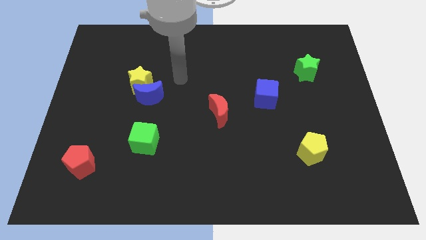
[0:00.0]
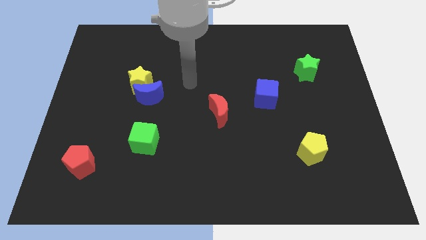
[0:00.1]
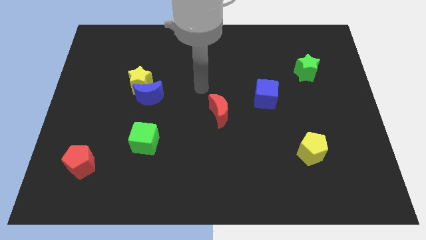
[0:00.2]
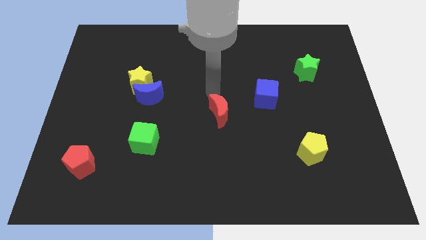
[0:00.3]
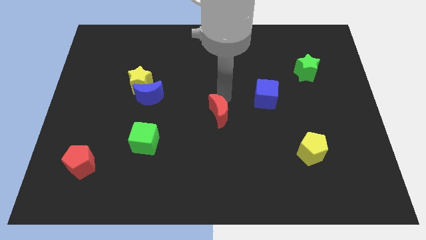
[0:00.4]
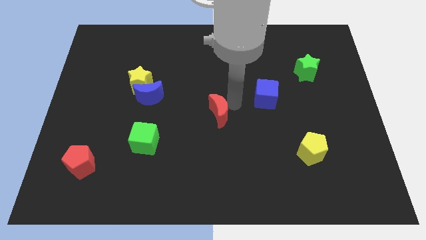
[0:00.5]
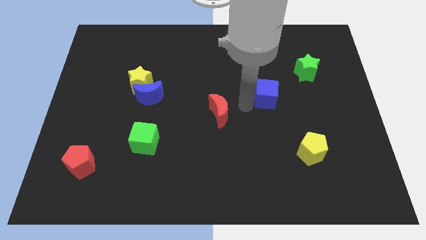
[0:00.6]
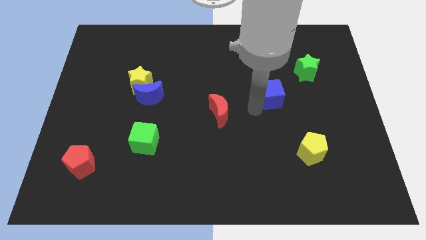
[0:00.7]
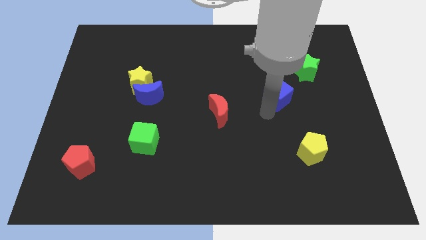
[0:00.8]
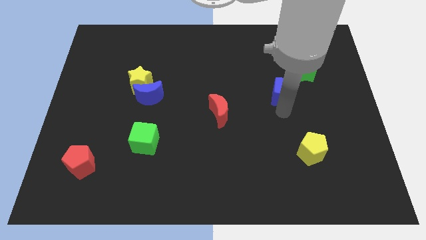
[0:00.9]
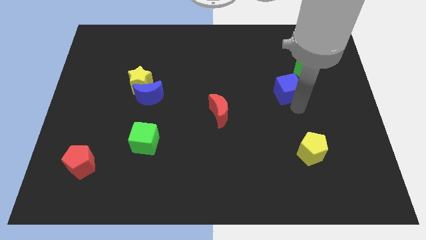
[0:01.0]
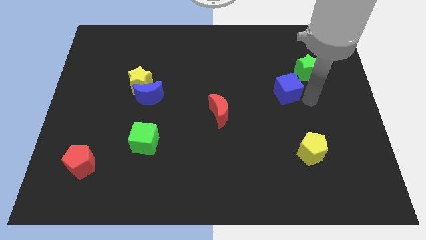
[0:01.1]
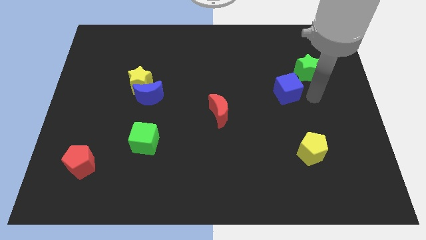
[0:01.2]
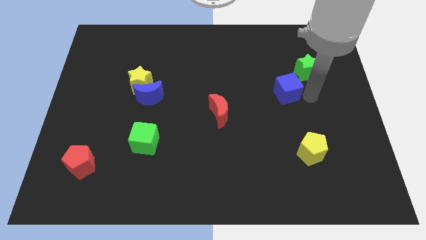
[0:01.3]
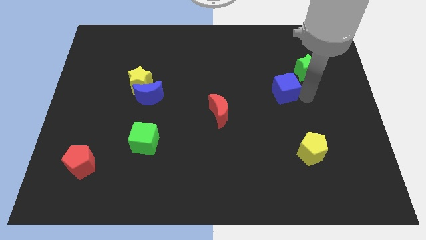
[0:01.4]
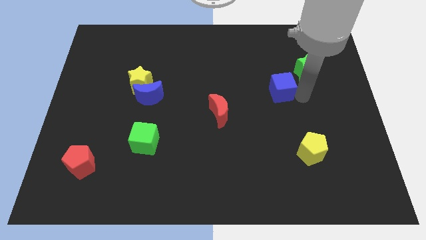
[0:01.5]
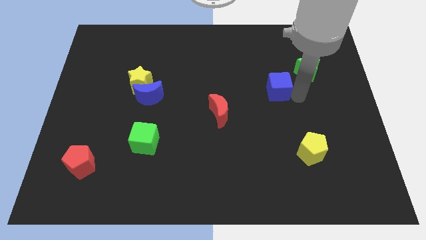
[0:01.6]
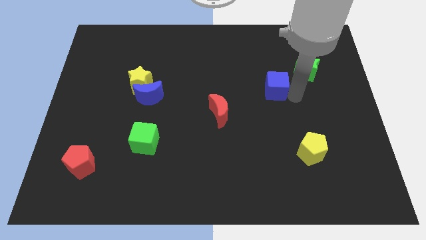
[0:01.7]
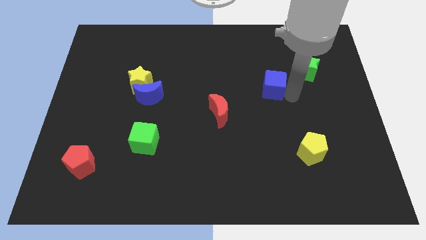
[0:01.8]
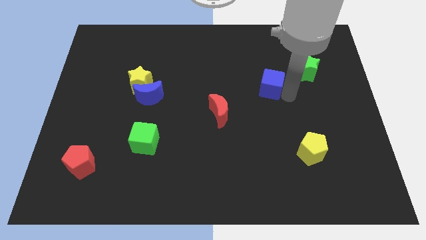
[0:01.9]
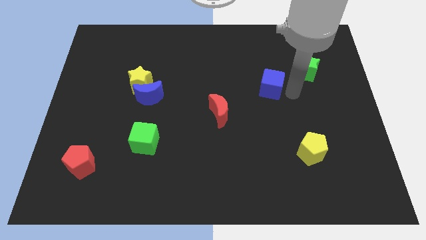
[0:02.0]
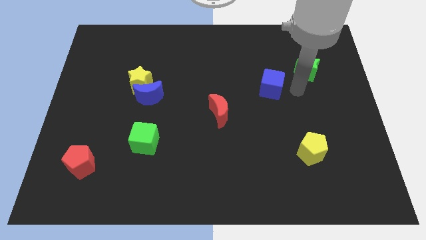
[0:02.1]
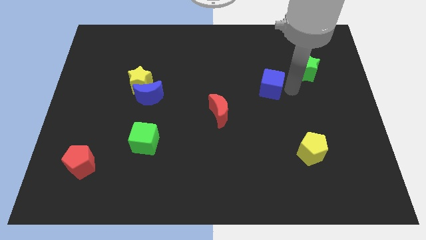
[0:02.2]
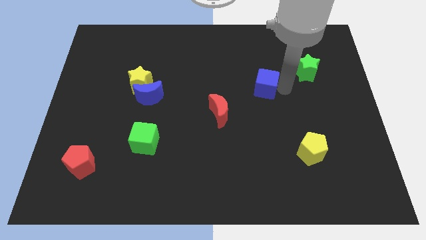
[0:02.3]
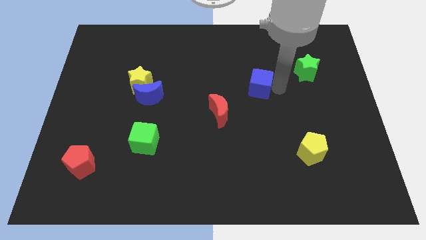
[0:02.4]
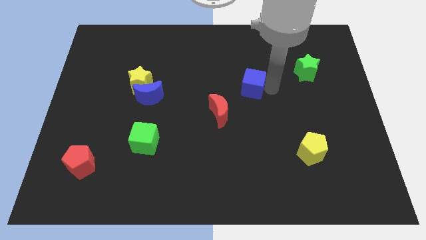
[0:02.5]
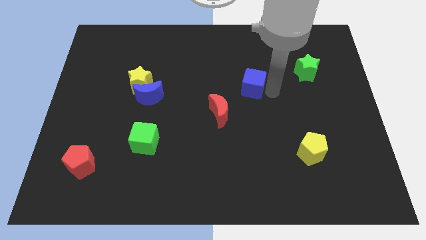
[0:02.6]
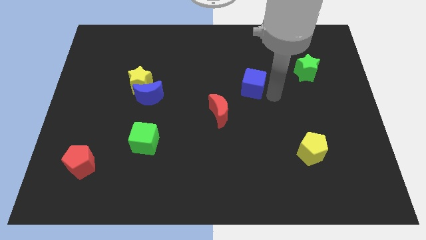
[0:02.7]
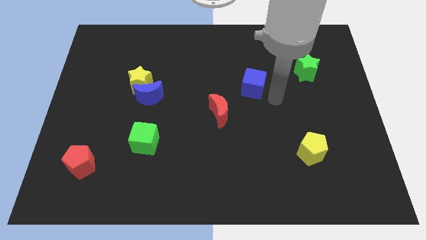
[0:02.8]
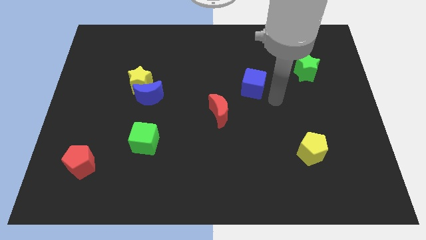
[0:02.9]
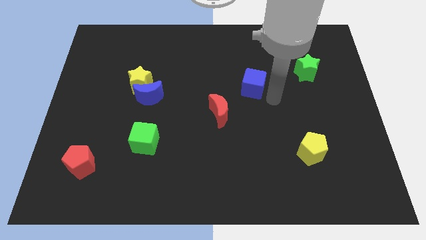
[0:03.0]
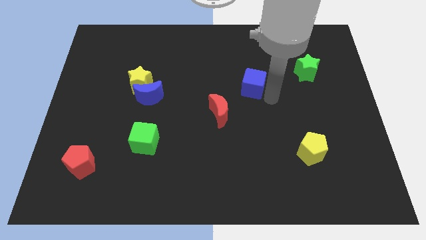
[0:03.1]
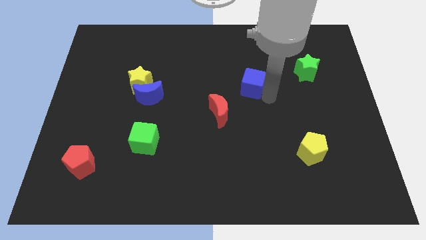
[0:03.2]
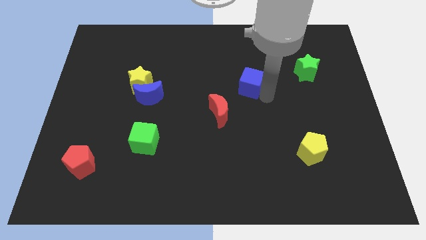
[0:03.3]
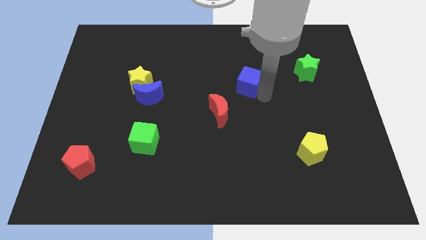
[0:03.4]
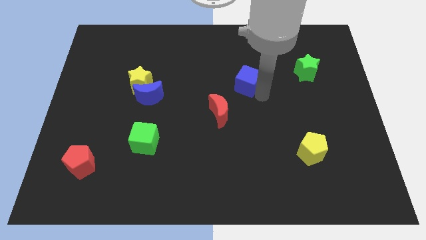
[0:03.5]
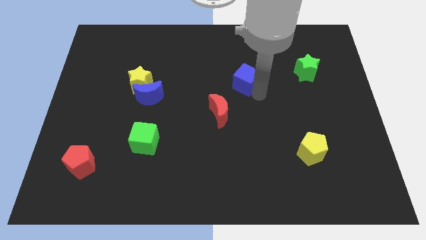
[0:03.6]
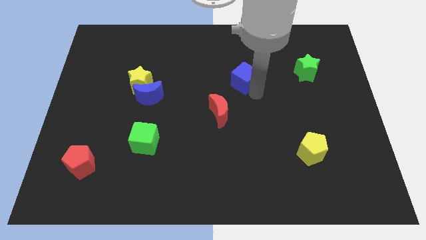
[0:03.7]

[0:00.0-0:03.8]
slightly slide the blue cube diagonally up and to the left

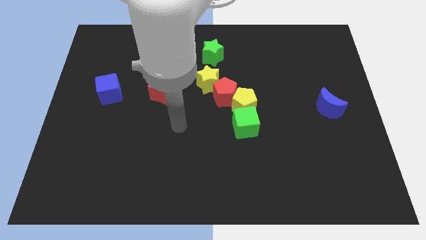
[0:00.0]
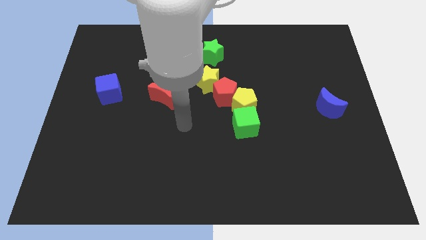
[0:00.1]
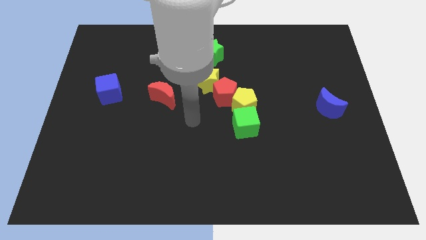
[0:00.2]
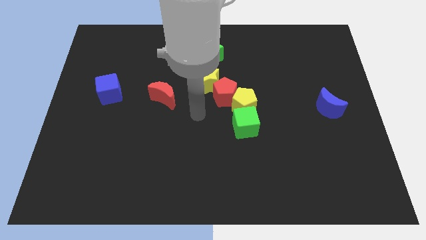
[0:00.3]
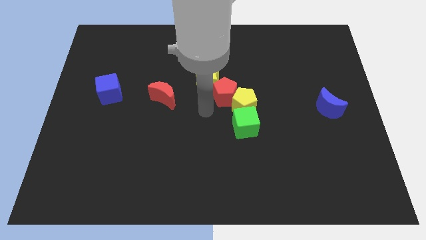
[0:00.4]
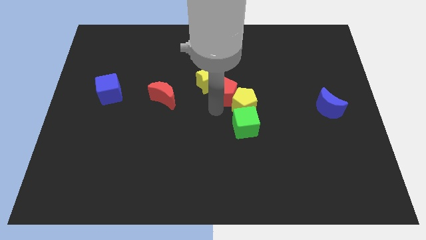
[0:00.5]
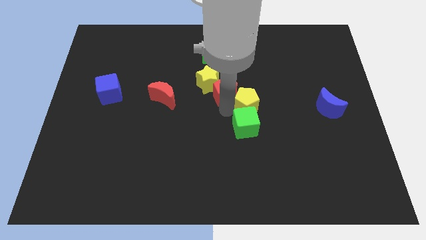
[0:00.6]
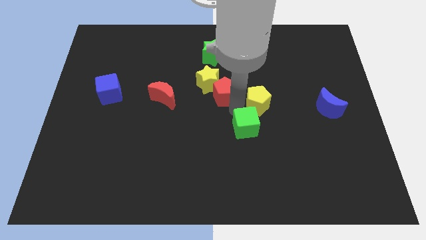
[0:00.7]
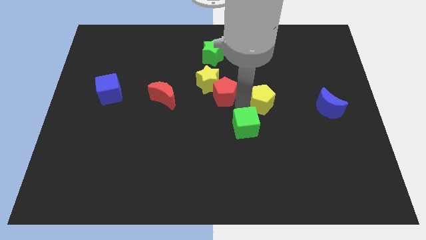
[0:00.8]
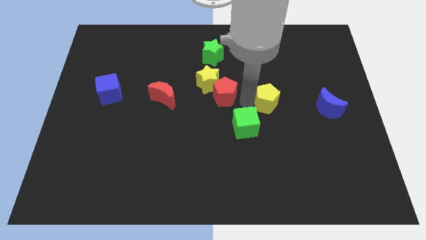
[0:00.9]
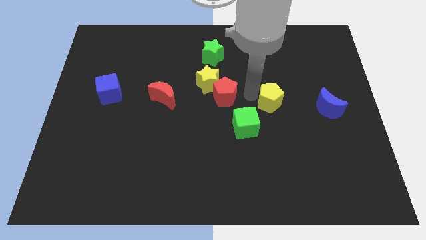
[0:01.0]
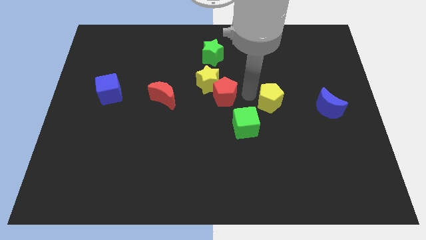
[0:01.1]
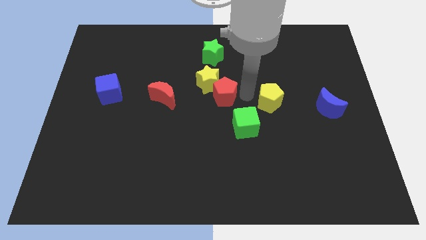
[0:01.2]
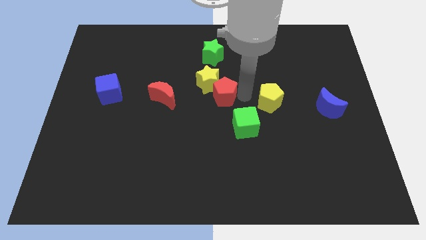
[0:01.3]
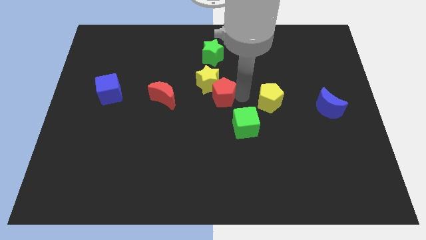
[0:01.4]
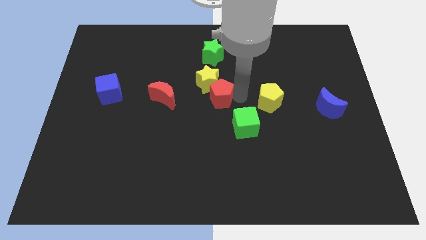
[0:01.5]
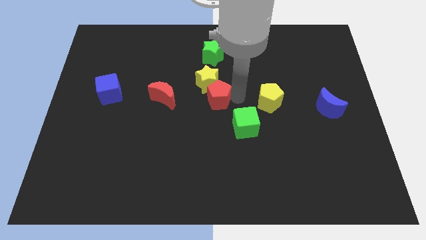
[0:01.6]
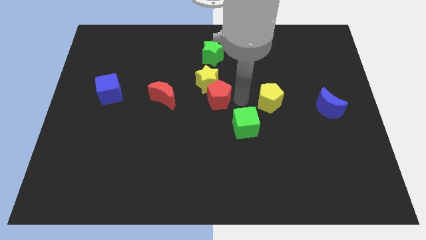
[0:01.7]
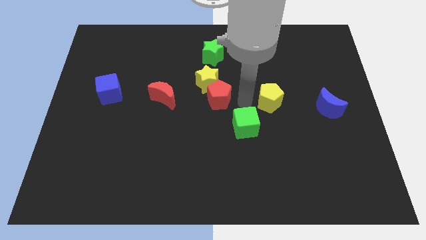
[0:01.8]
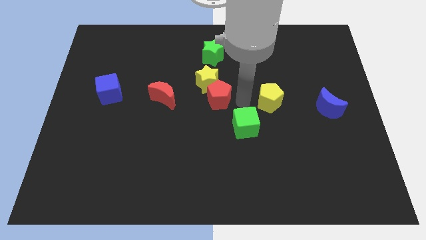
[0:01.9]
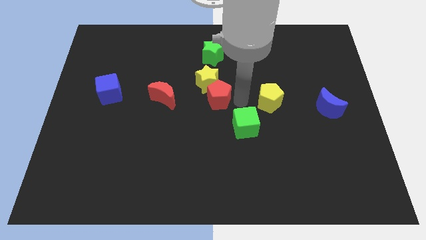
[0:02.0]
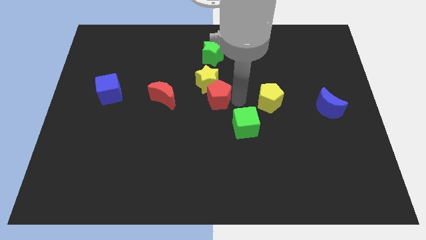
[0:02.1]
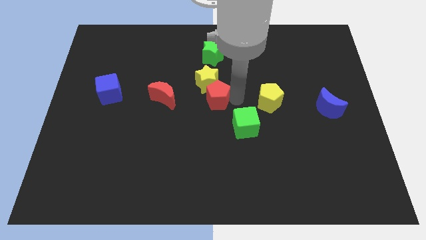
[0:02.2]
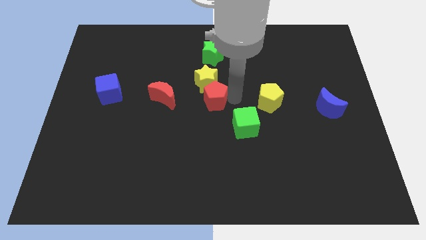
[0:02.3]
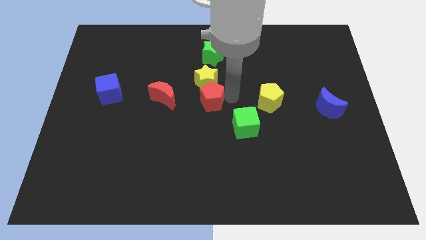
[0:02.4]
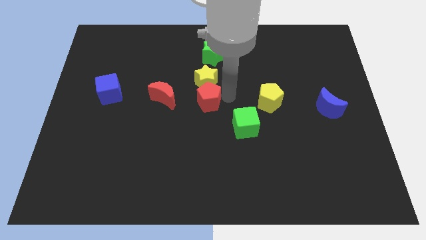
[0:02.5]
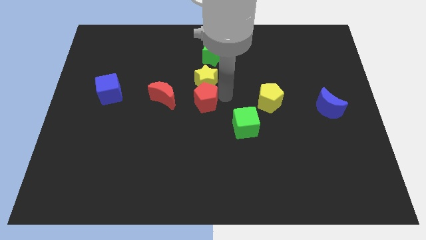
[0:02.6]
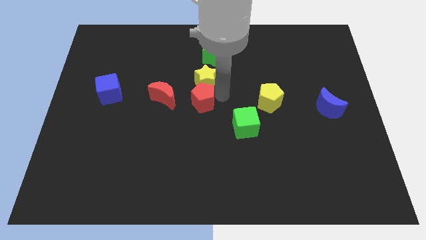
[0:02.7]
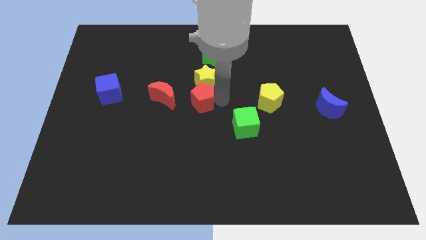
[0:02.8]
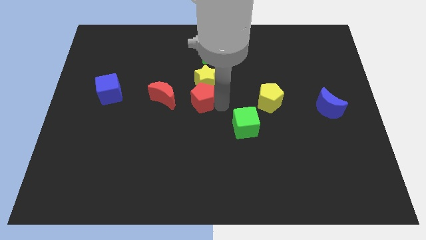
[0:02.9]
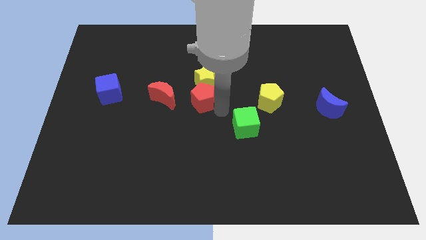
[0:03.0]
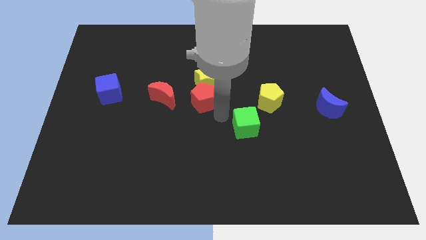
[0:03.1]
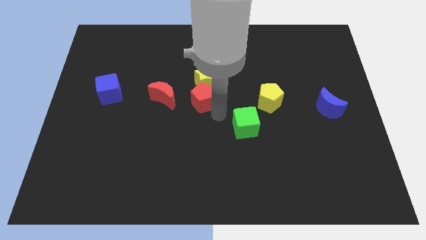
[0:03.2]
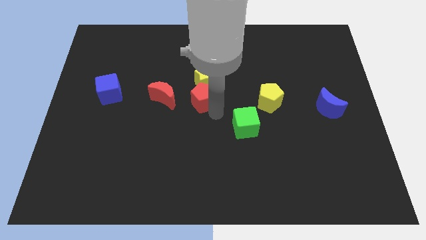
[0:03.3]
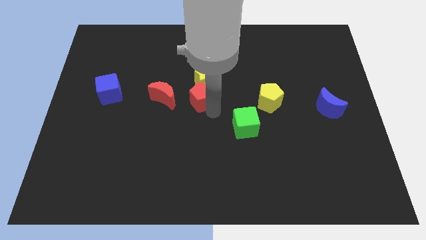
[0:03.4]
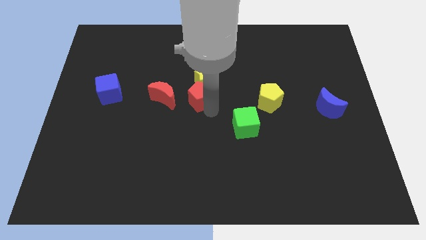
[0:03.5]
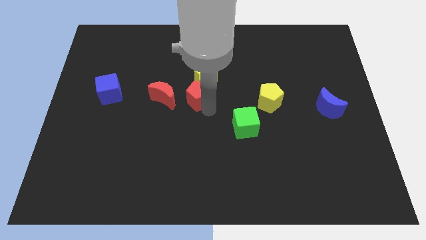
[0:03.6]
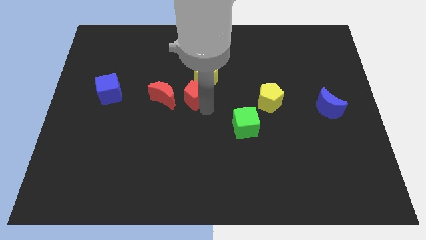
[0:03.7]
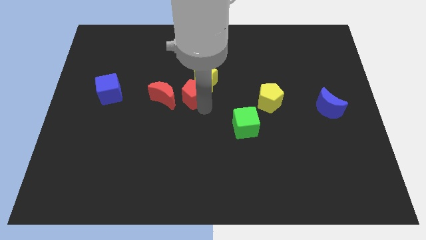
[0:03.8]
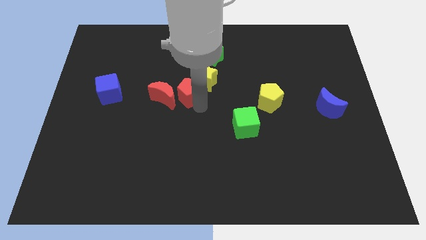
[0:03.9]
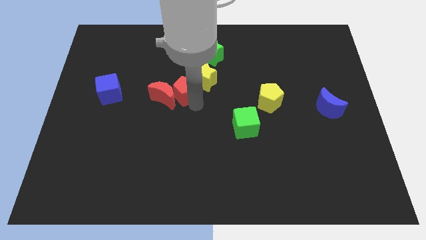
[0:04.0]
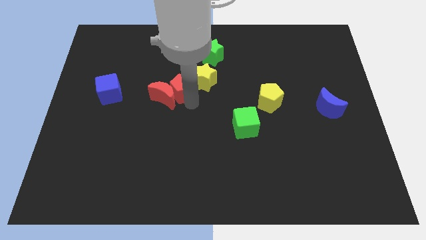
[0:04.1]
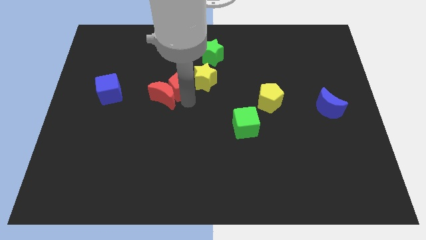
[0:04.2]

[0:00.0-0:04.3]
push the red pentagon up and to the left diagonally somewhat
